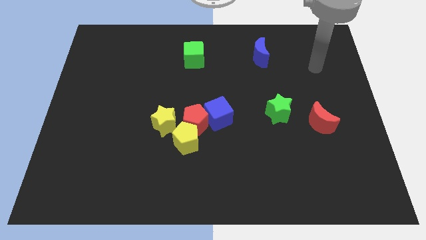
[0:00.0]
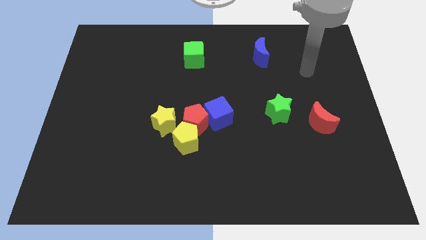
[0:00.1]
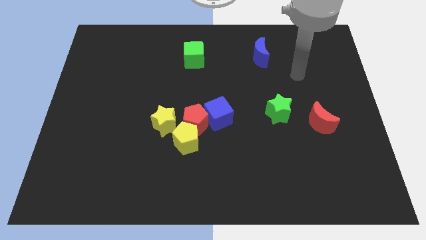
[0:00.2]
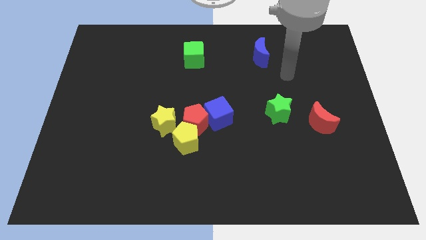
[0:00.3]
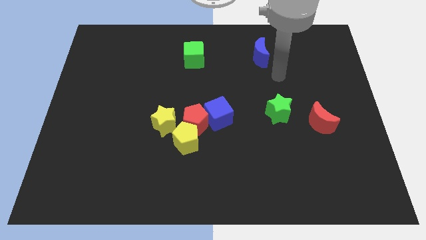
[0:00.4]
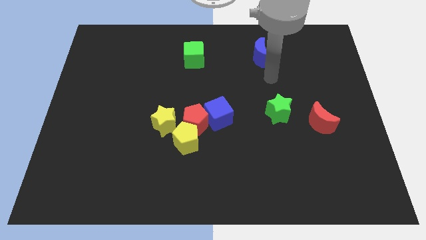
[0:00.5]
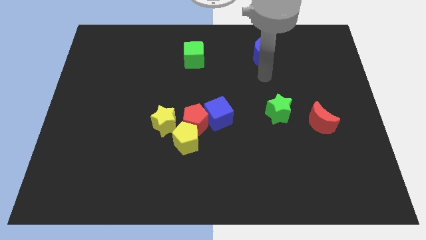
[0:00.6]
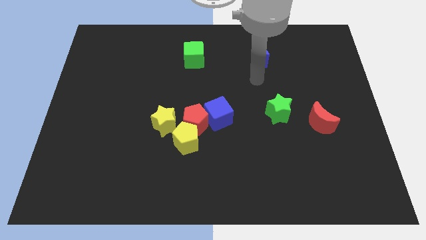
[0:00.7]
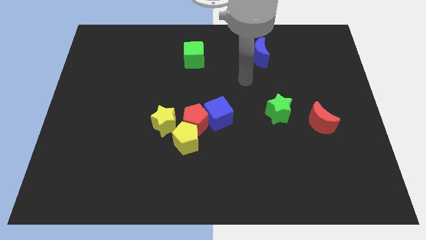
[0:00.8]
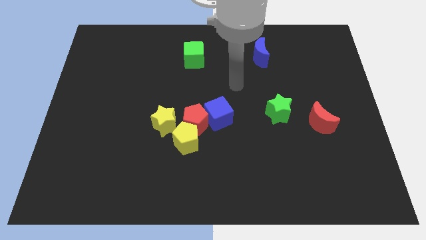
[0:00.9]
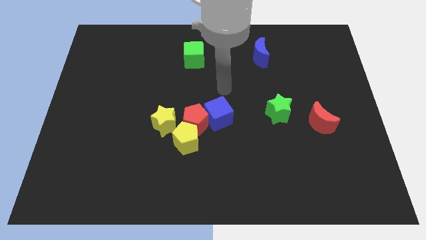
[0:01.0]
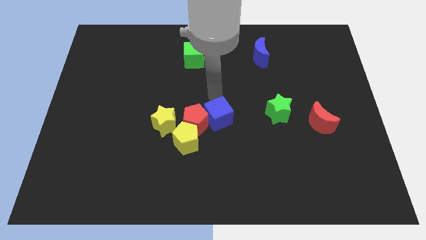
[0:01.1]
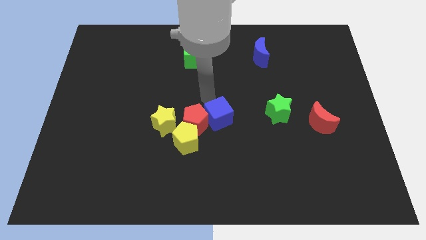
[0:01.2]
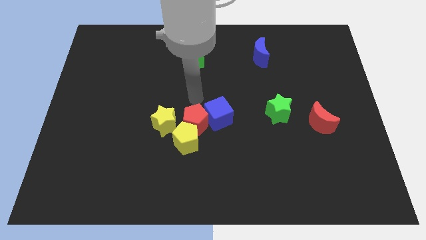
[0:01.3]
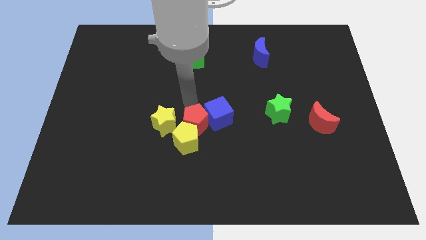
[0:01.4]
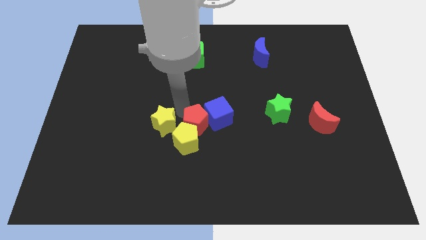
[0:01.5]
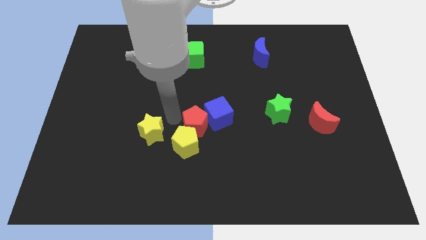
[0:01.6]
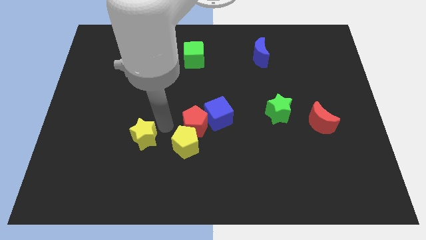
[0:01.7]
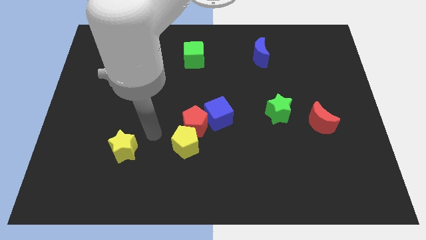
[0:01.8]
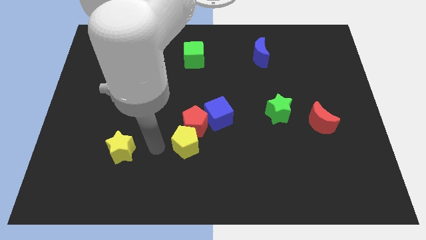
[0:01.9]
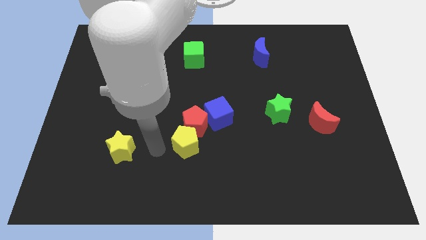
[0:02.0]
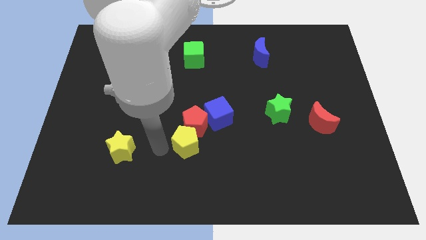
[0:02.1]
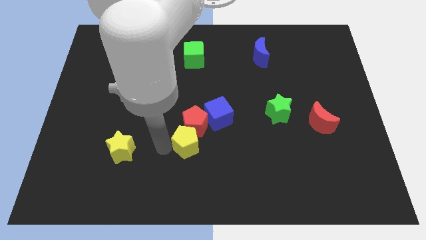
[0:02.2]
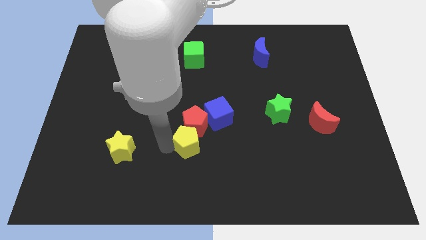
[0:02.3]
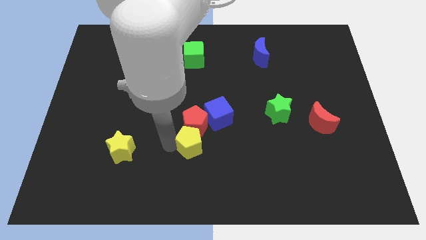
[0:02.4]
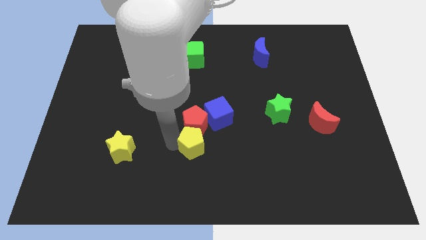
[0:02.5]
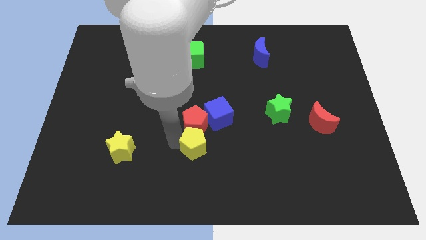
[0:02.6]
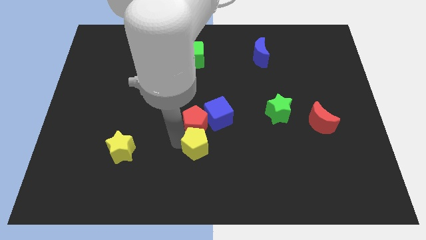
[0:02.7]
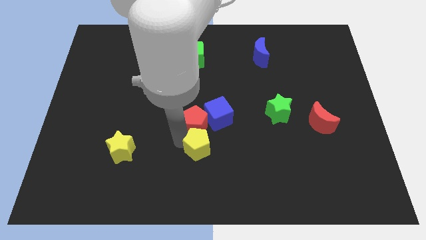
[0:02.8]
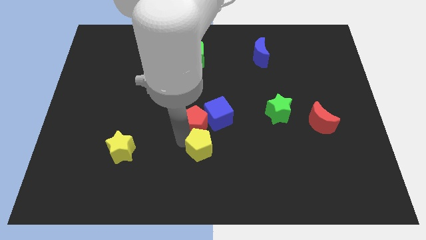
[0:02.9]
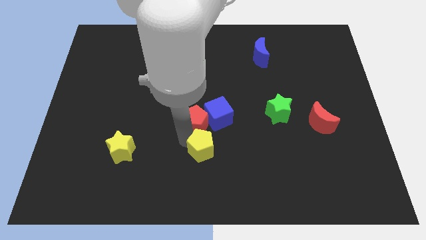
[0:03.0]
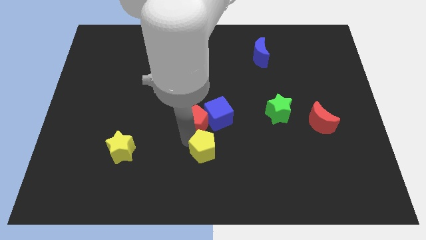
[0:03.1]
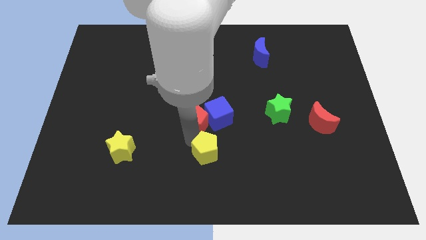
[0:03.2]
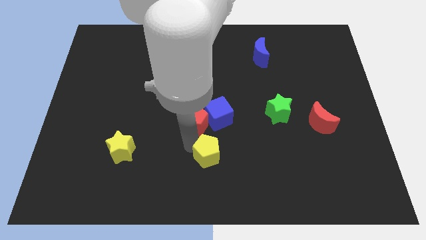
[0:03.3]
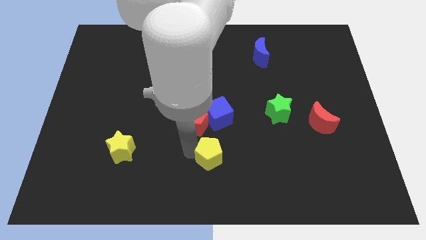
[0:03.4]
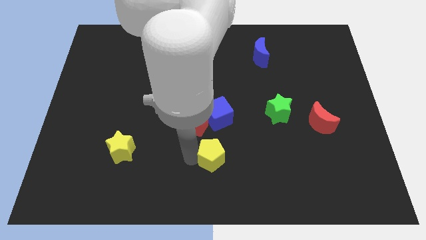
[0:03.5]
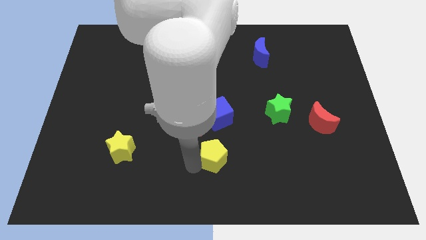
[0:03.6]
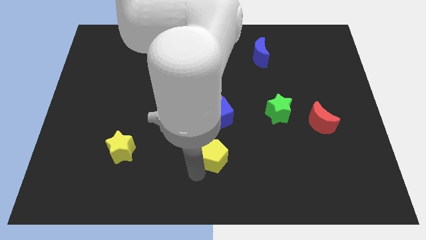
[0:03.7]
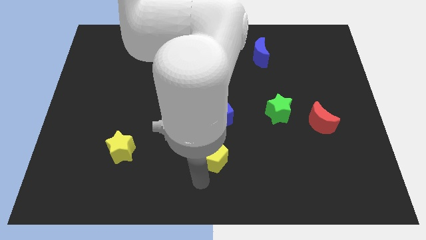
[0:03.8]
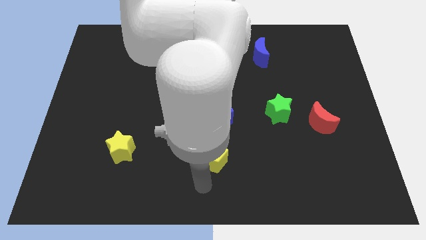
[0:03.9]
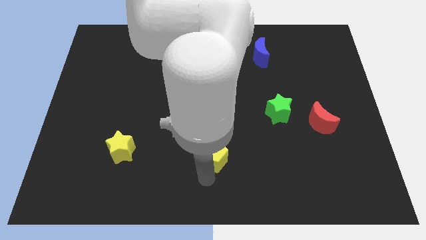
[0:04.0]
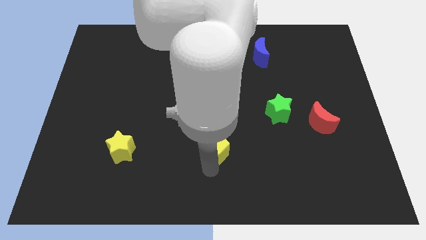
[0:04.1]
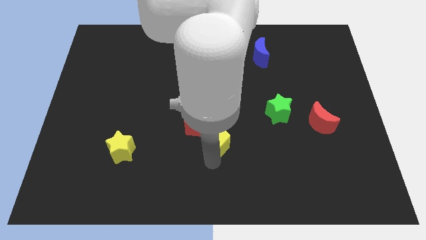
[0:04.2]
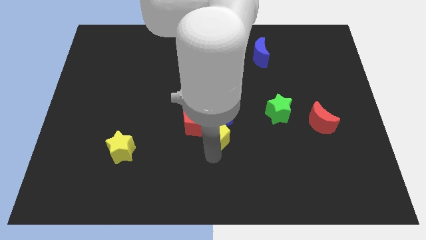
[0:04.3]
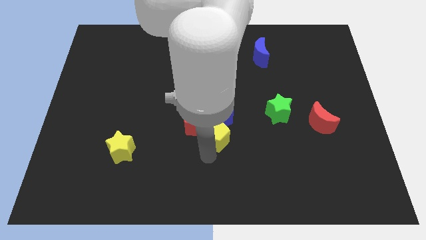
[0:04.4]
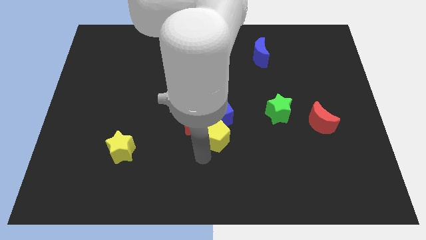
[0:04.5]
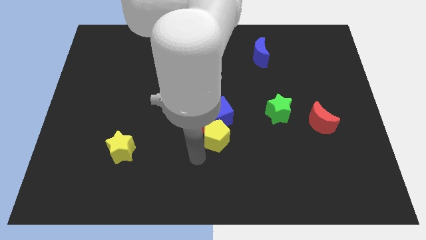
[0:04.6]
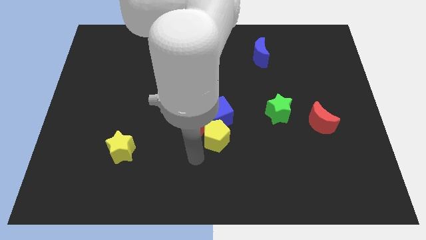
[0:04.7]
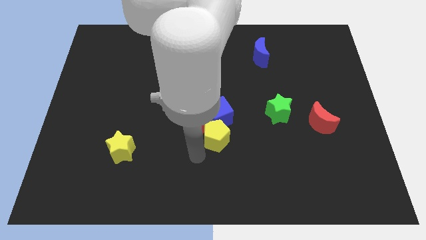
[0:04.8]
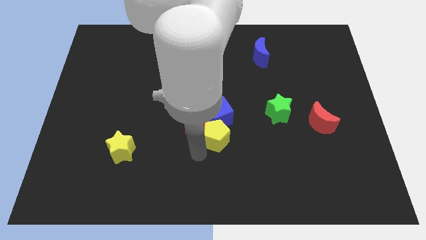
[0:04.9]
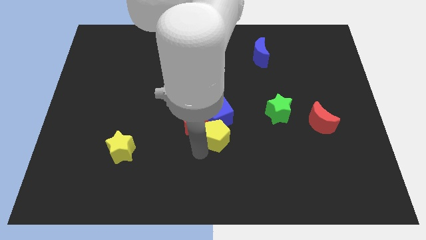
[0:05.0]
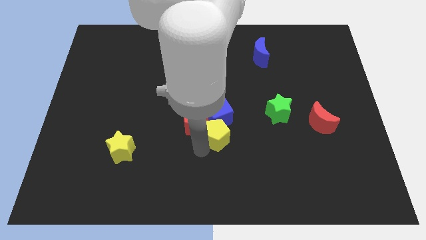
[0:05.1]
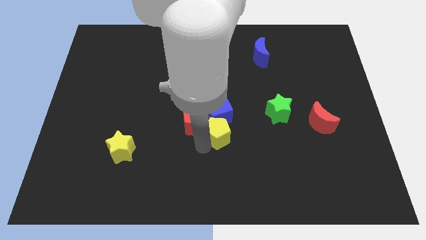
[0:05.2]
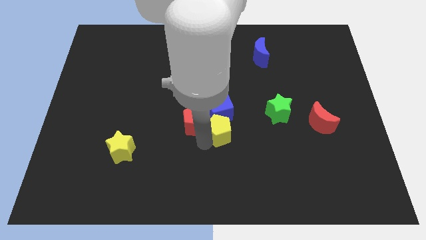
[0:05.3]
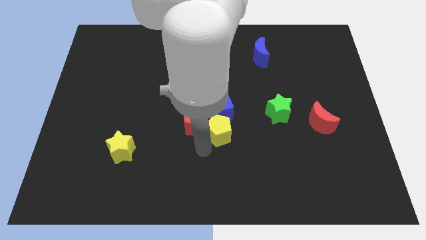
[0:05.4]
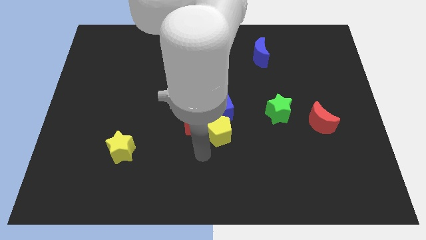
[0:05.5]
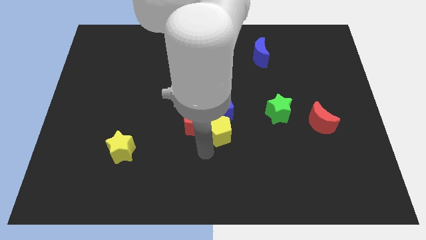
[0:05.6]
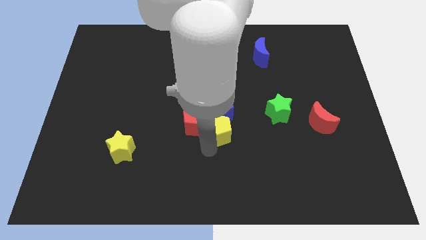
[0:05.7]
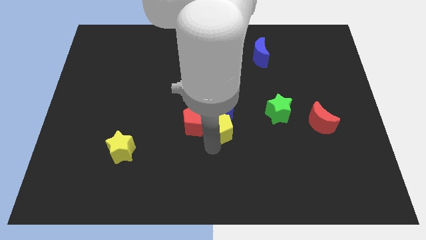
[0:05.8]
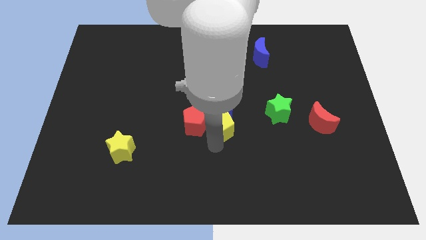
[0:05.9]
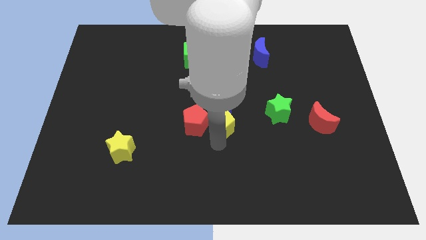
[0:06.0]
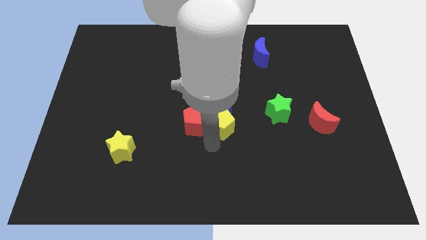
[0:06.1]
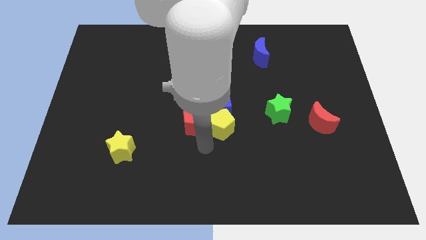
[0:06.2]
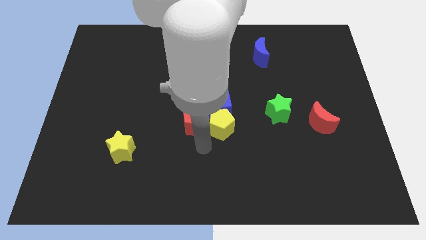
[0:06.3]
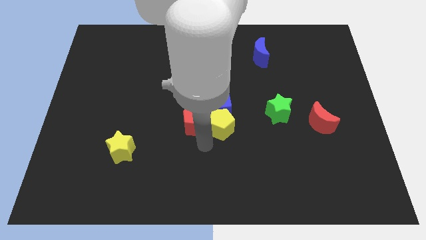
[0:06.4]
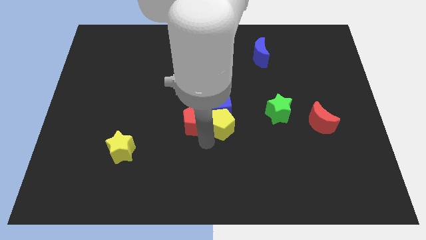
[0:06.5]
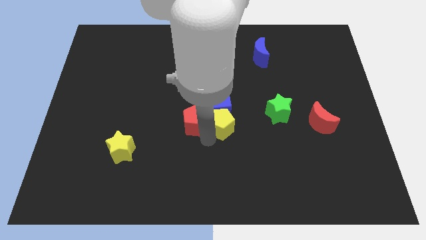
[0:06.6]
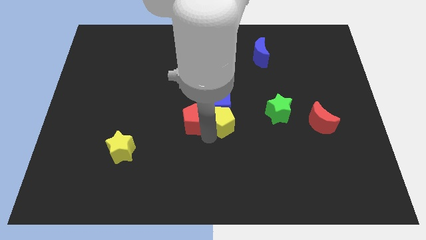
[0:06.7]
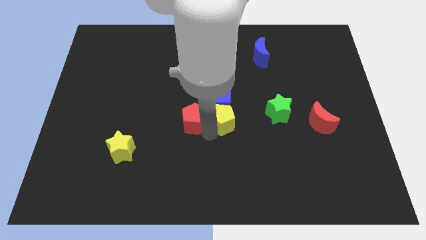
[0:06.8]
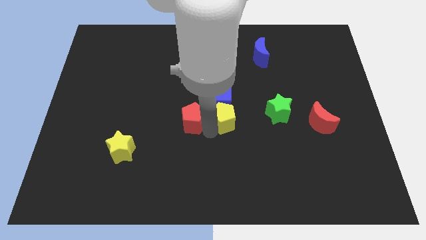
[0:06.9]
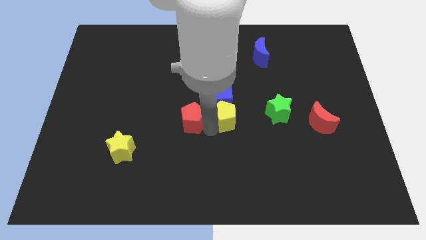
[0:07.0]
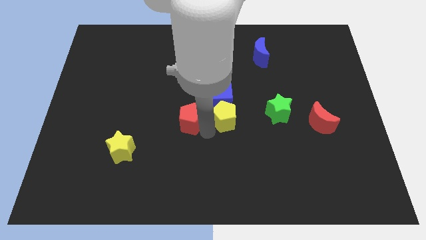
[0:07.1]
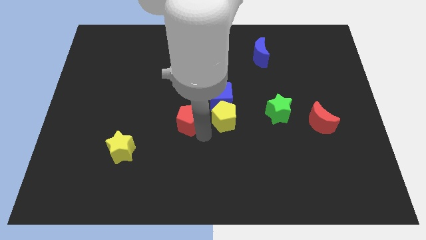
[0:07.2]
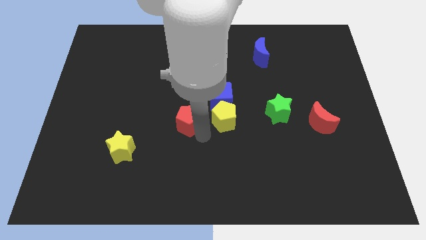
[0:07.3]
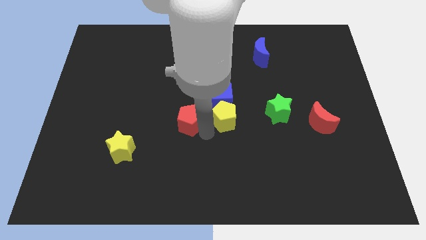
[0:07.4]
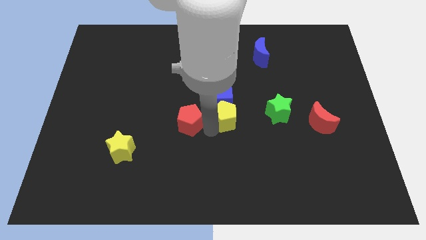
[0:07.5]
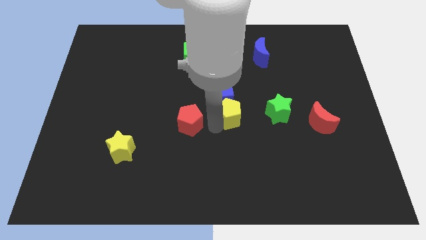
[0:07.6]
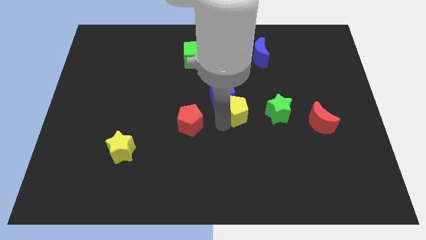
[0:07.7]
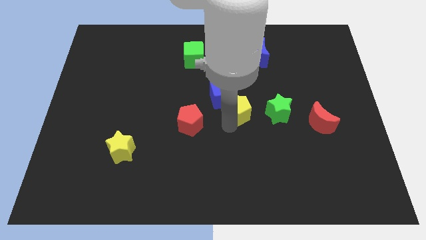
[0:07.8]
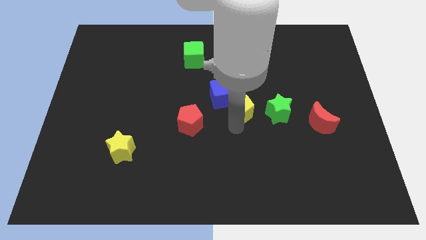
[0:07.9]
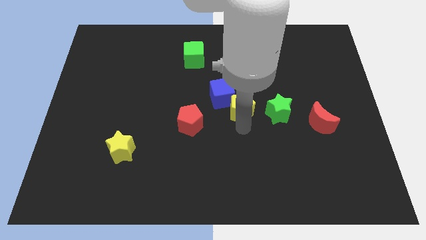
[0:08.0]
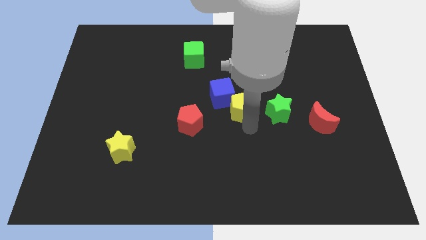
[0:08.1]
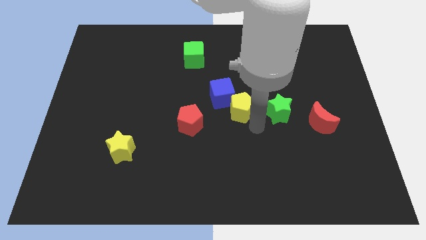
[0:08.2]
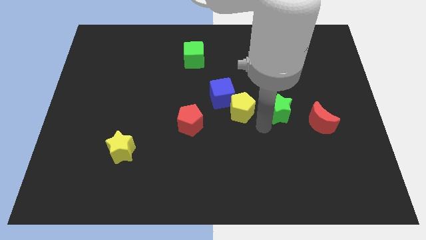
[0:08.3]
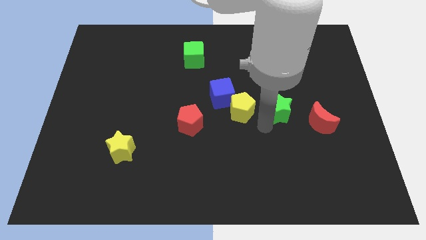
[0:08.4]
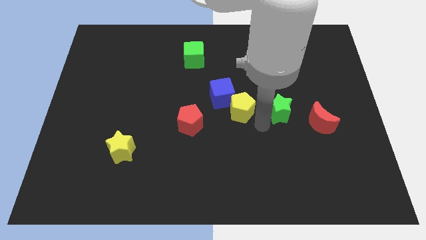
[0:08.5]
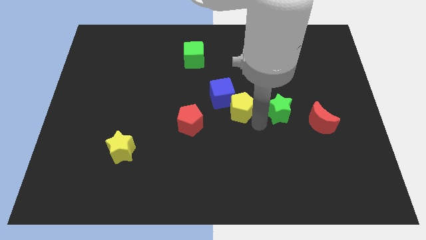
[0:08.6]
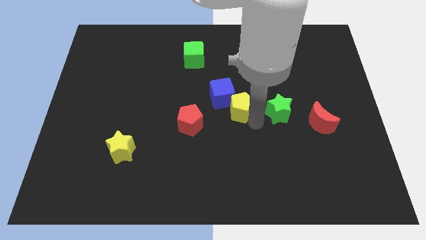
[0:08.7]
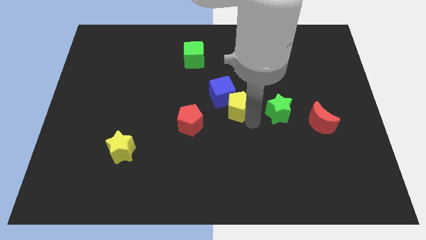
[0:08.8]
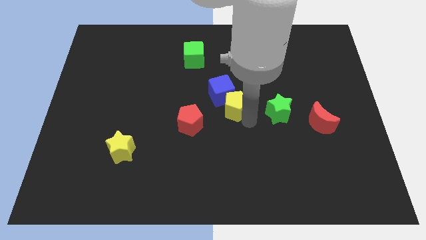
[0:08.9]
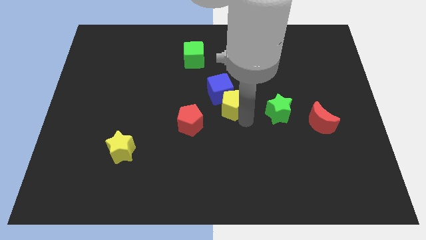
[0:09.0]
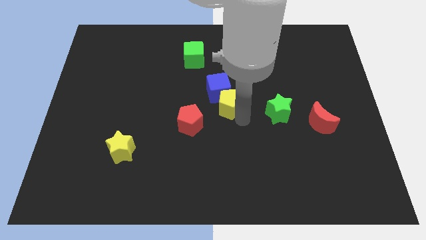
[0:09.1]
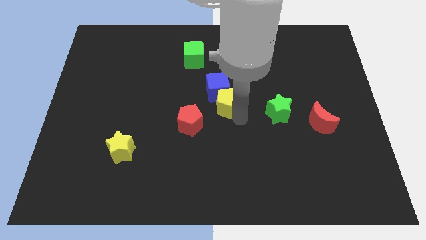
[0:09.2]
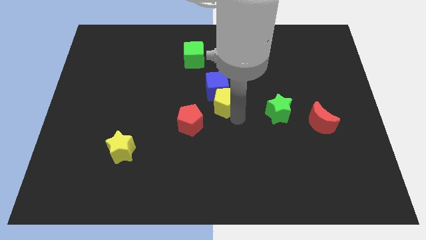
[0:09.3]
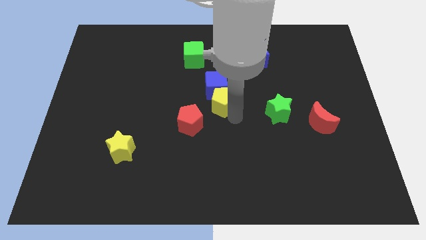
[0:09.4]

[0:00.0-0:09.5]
slide the yellow pentagon up a bit
